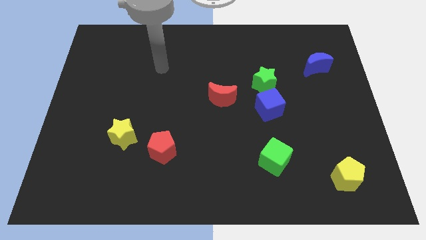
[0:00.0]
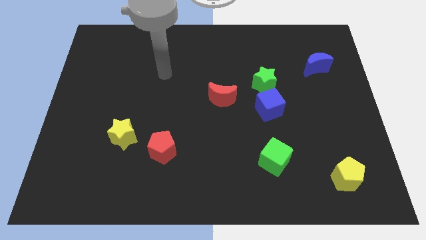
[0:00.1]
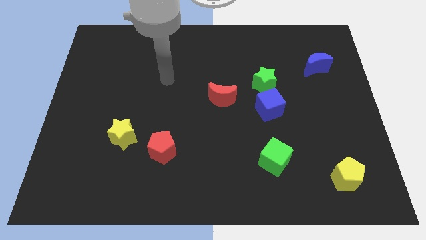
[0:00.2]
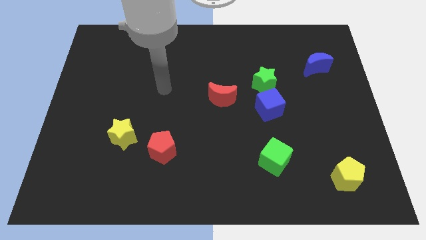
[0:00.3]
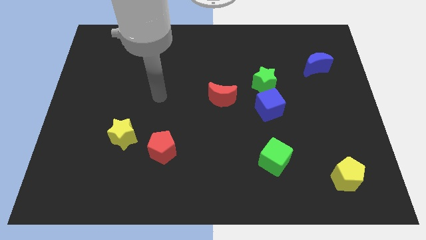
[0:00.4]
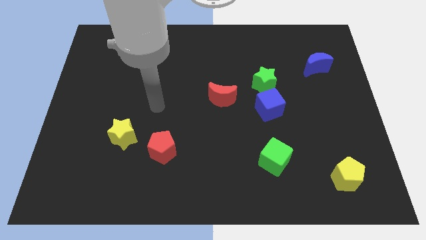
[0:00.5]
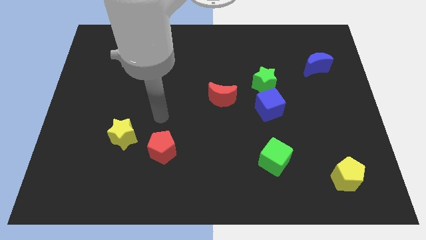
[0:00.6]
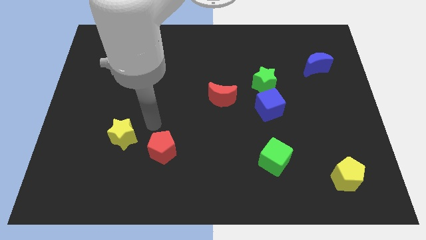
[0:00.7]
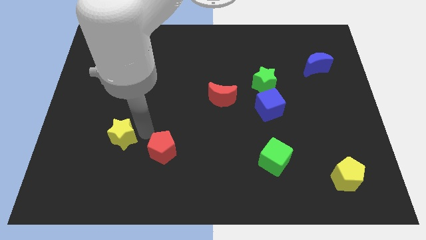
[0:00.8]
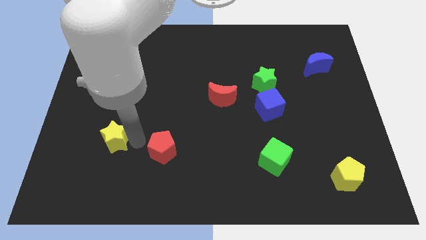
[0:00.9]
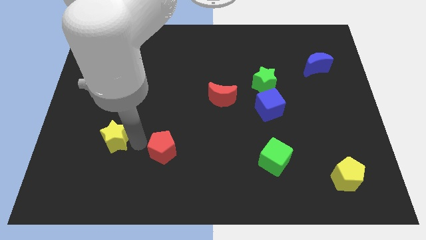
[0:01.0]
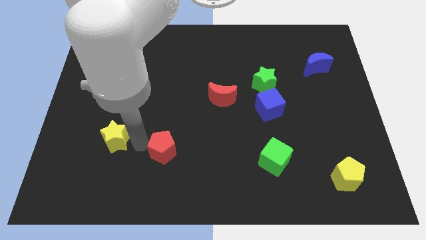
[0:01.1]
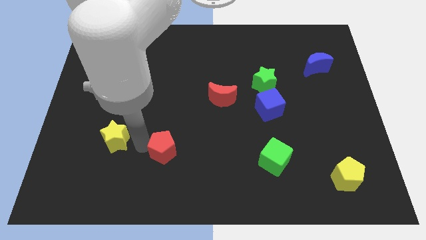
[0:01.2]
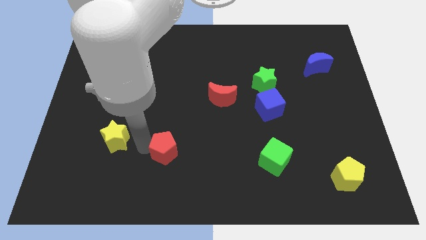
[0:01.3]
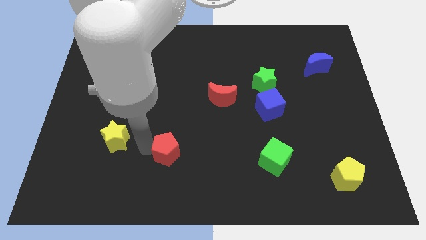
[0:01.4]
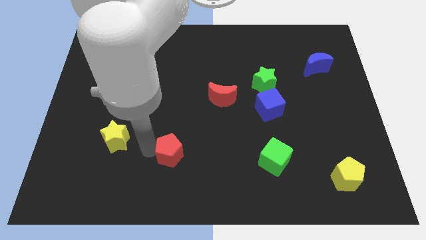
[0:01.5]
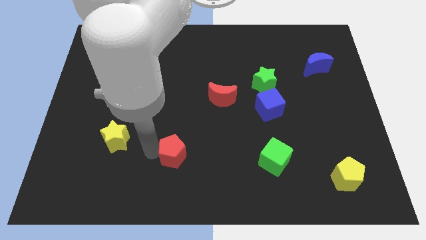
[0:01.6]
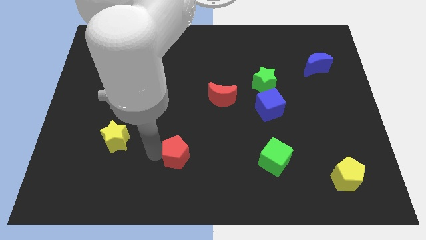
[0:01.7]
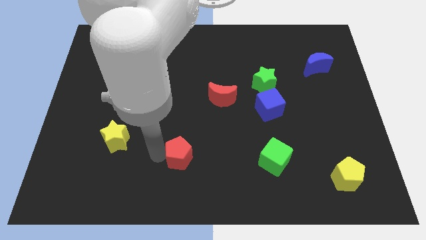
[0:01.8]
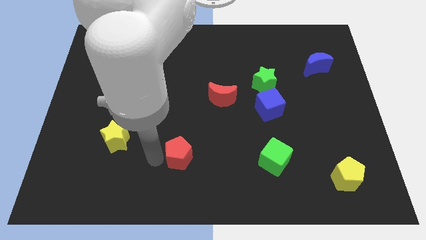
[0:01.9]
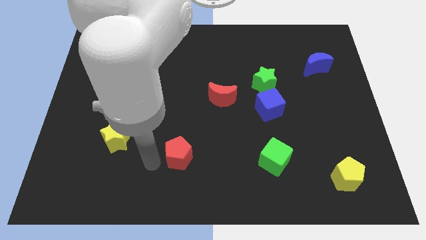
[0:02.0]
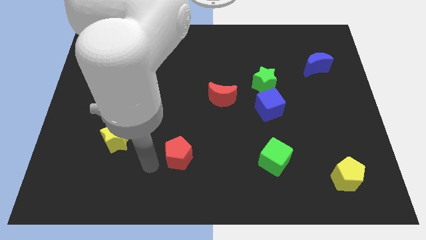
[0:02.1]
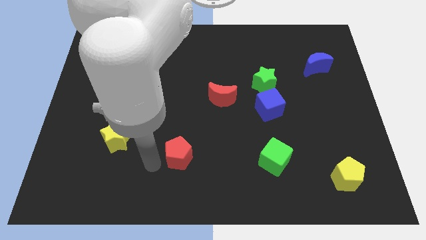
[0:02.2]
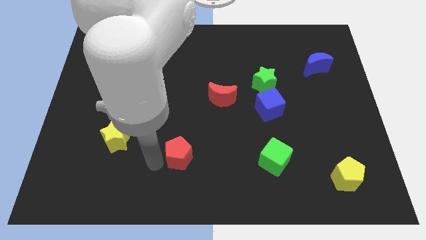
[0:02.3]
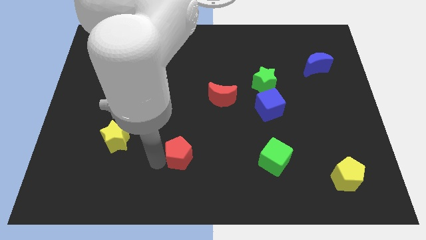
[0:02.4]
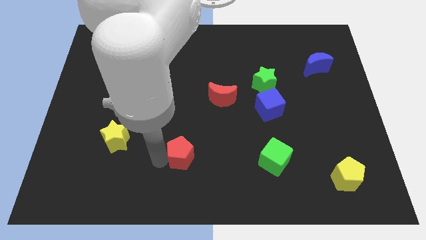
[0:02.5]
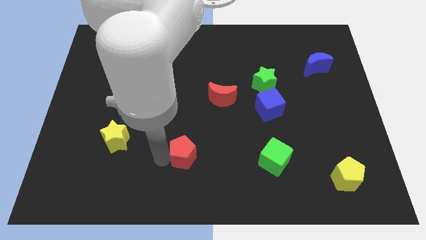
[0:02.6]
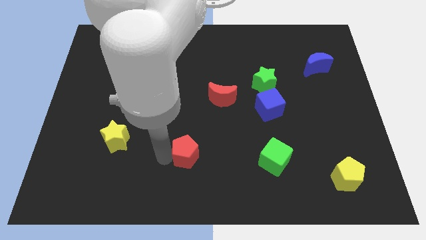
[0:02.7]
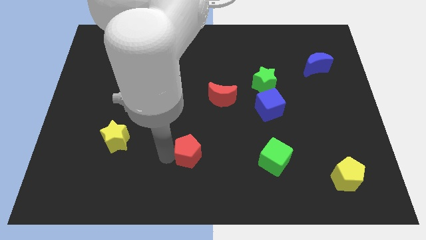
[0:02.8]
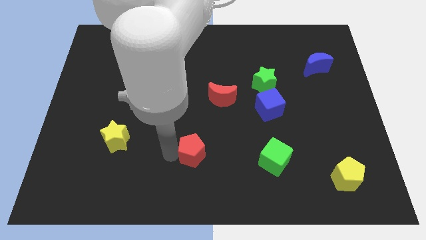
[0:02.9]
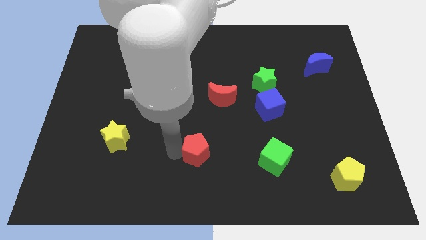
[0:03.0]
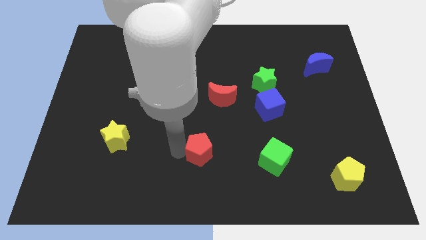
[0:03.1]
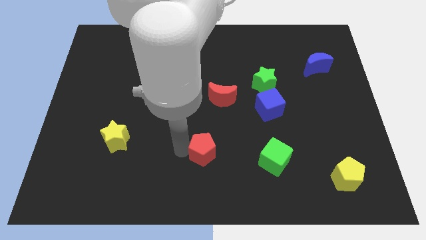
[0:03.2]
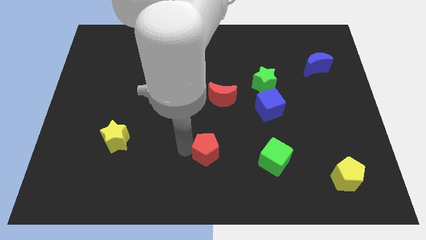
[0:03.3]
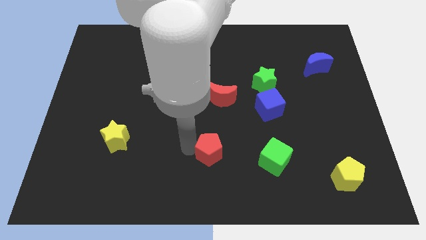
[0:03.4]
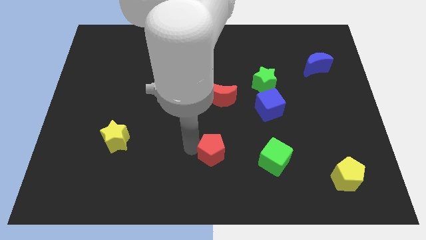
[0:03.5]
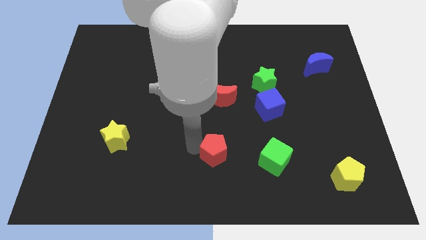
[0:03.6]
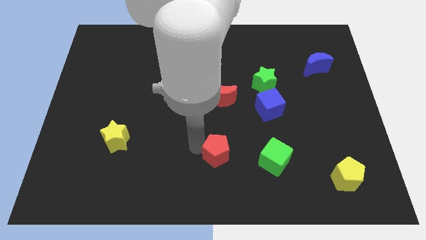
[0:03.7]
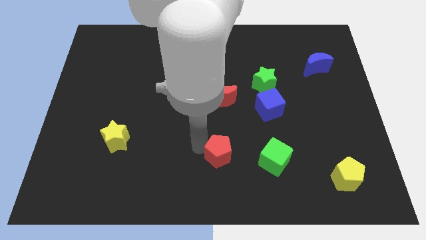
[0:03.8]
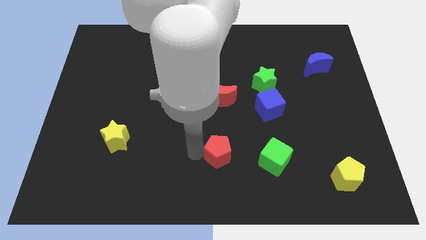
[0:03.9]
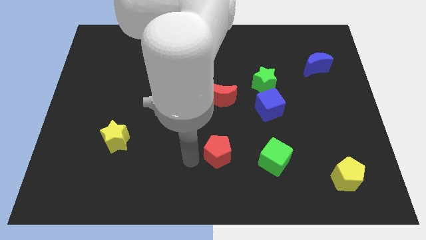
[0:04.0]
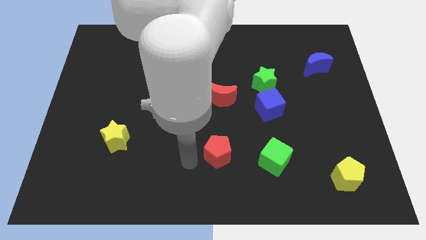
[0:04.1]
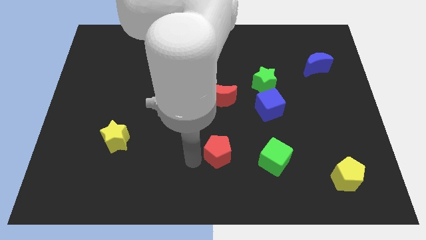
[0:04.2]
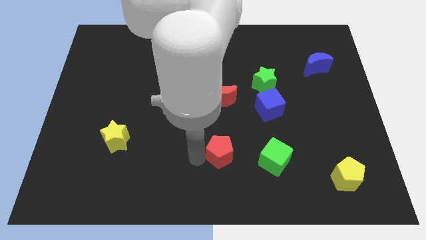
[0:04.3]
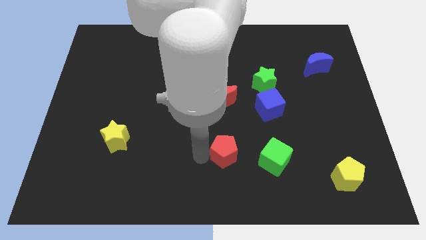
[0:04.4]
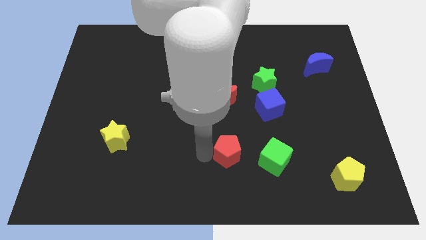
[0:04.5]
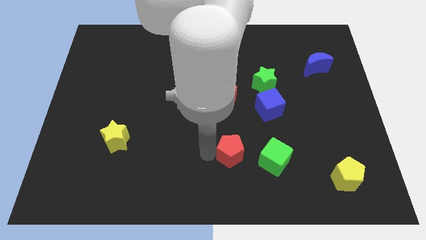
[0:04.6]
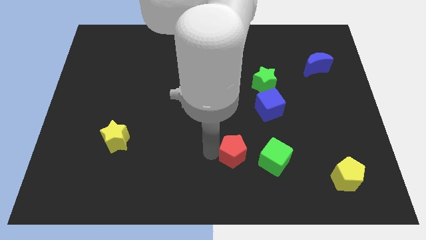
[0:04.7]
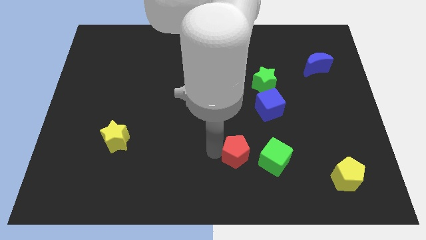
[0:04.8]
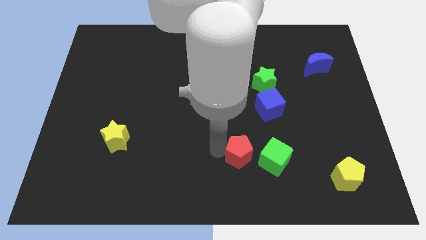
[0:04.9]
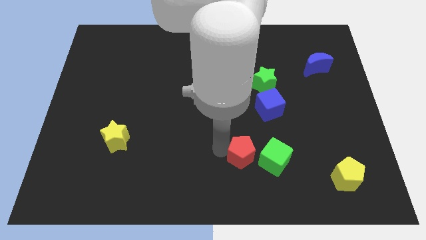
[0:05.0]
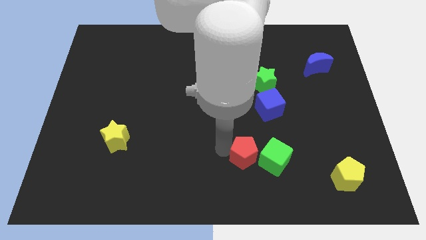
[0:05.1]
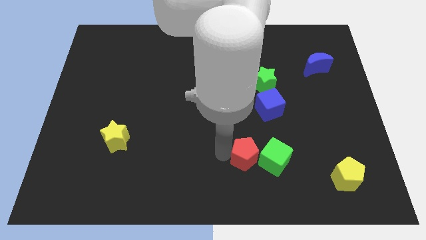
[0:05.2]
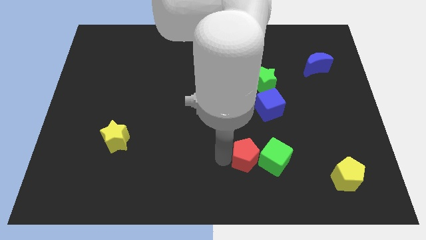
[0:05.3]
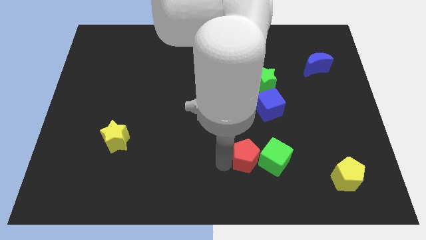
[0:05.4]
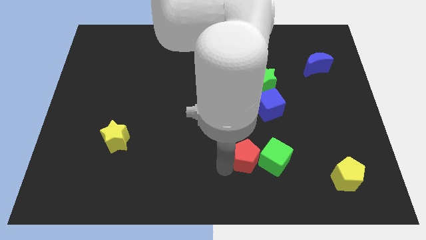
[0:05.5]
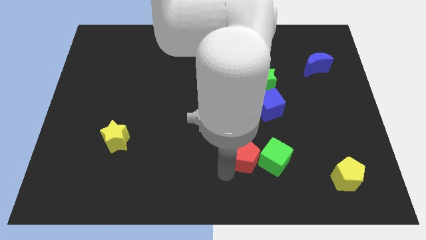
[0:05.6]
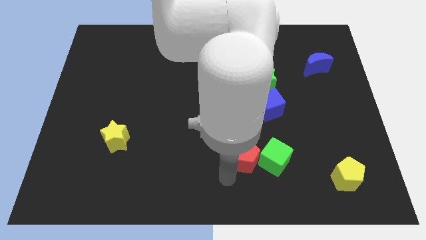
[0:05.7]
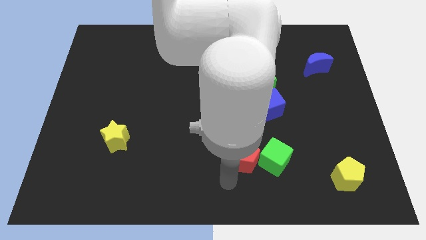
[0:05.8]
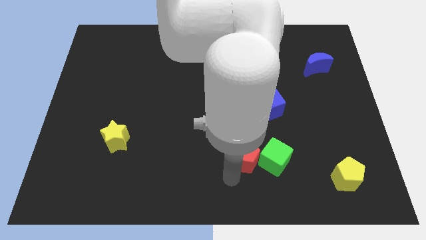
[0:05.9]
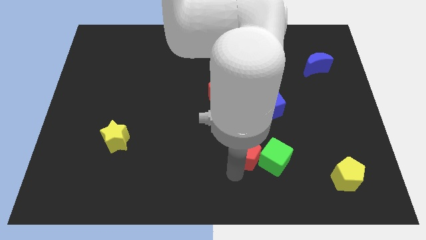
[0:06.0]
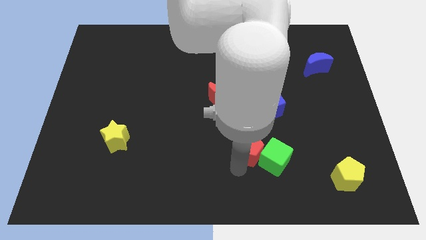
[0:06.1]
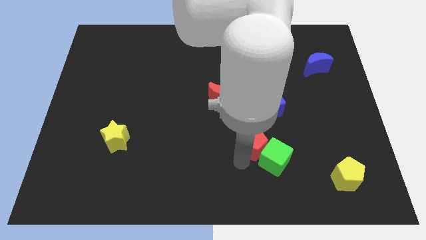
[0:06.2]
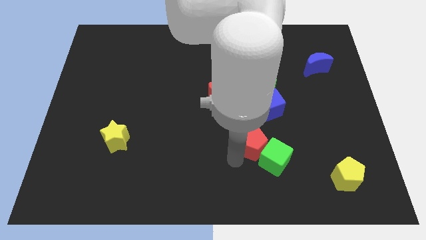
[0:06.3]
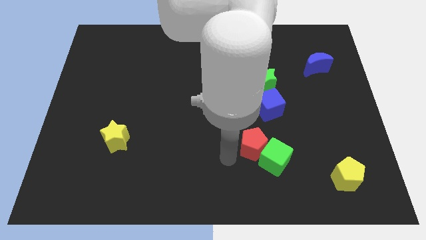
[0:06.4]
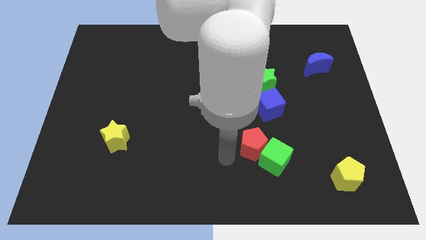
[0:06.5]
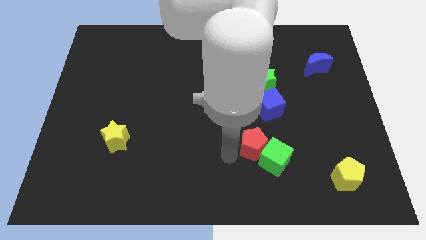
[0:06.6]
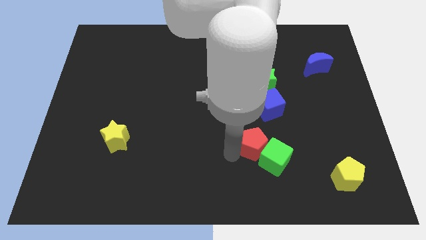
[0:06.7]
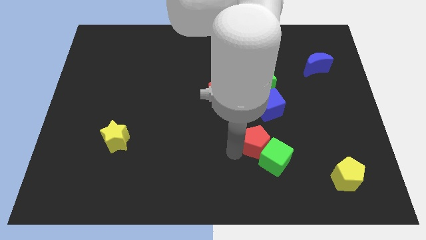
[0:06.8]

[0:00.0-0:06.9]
slide the red pentagon right

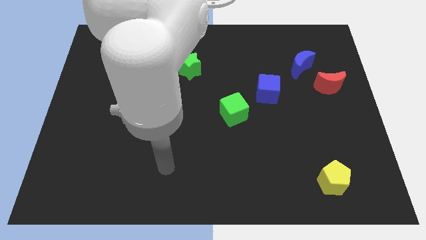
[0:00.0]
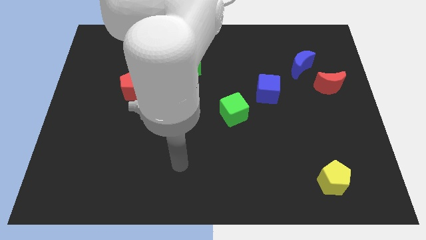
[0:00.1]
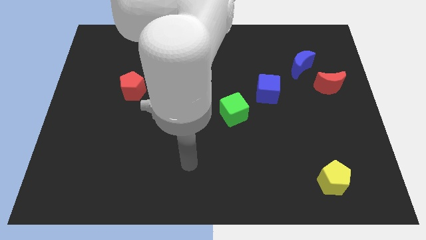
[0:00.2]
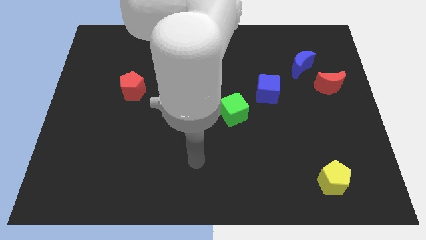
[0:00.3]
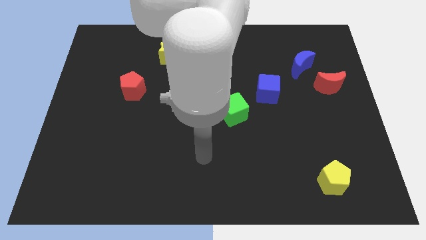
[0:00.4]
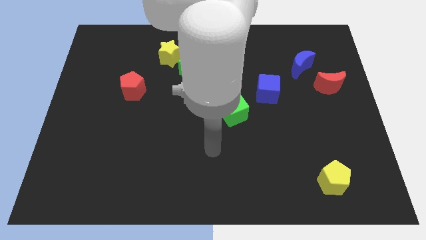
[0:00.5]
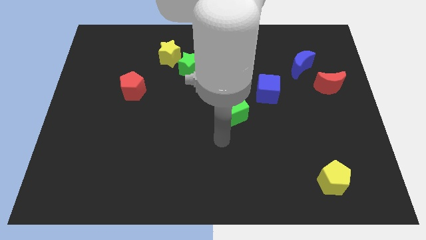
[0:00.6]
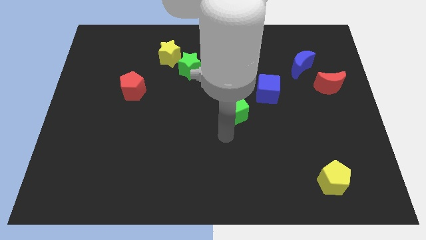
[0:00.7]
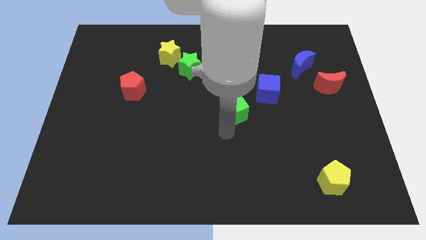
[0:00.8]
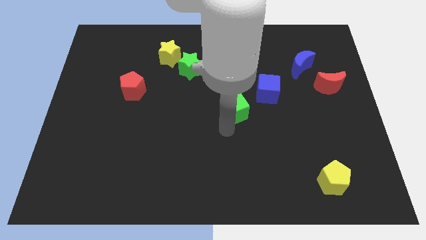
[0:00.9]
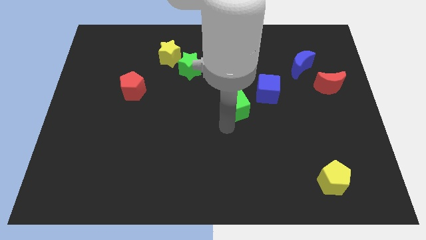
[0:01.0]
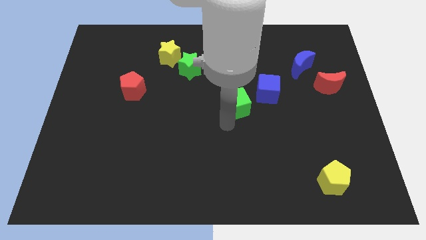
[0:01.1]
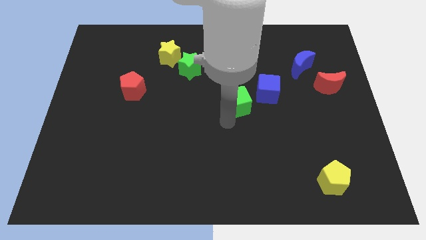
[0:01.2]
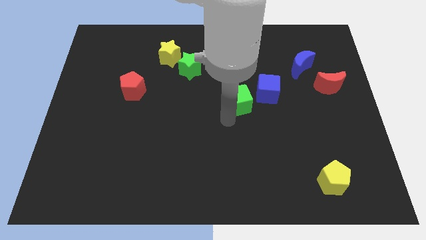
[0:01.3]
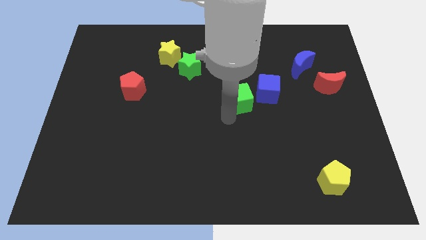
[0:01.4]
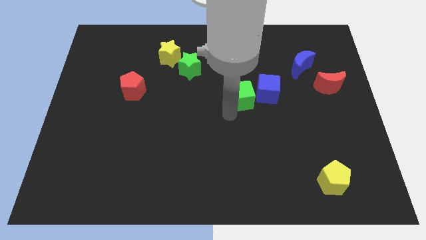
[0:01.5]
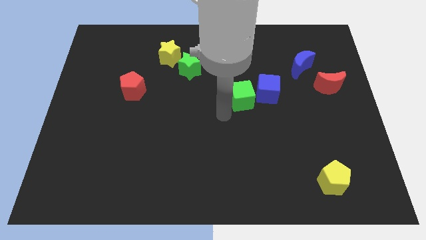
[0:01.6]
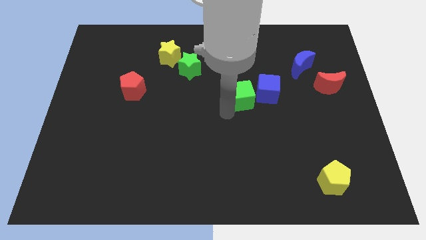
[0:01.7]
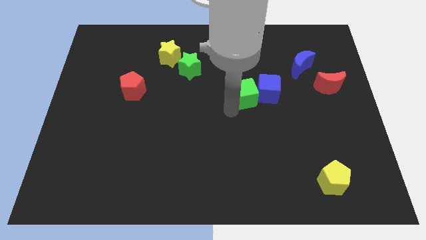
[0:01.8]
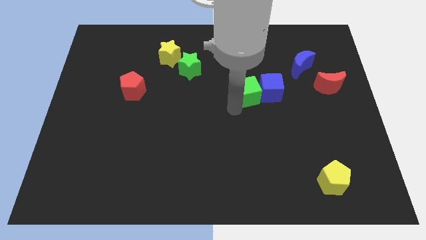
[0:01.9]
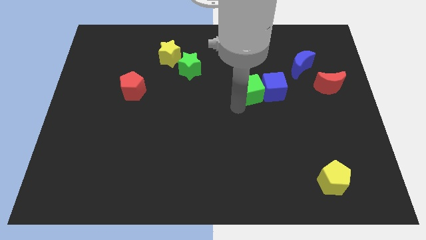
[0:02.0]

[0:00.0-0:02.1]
slightly move the green cube upwards and then right
